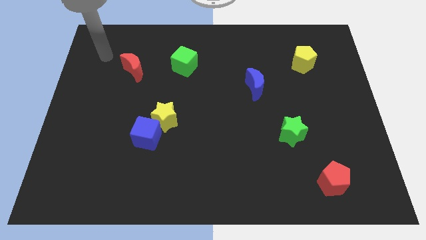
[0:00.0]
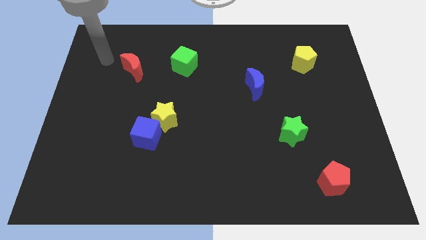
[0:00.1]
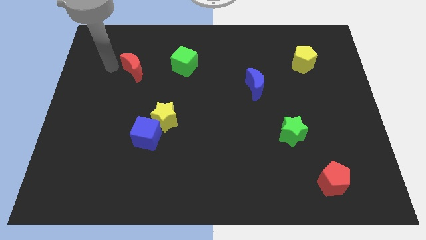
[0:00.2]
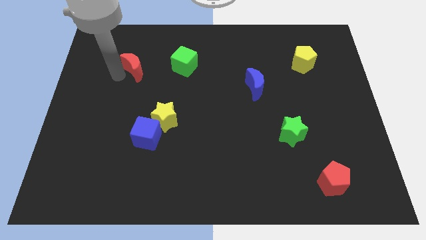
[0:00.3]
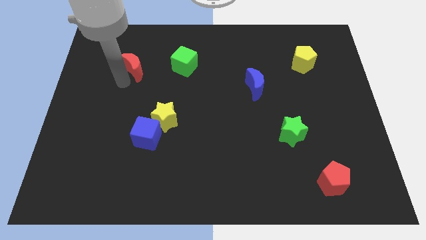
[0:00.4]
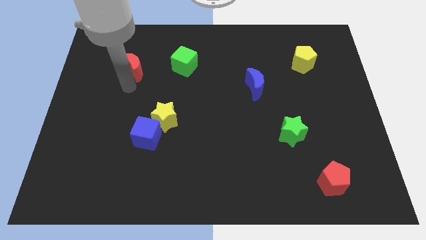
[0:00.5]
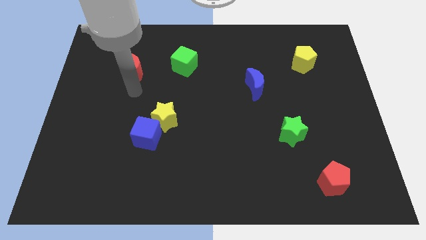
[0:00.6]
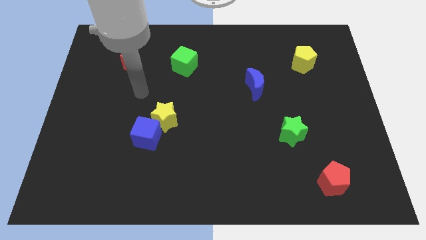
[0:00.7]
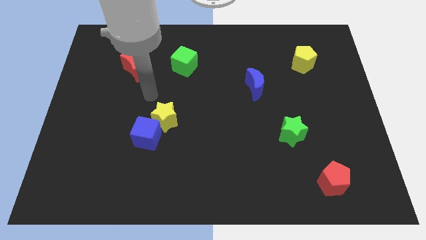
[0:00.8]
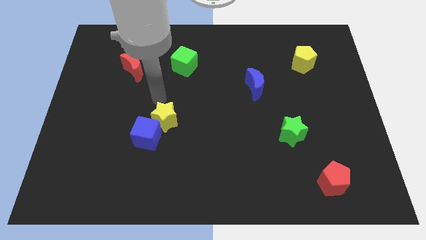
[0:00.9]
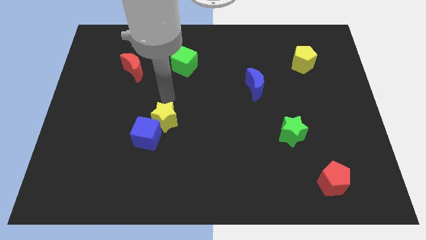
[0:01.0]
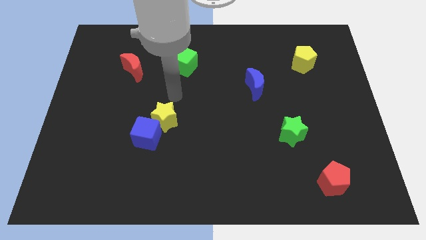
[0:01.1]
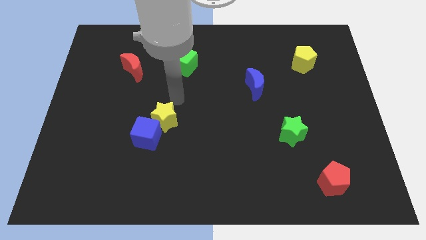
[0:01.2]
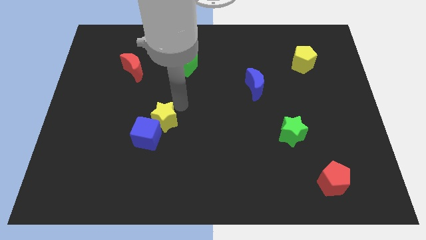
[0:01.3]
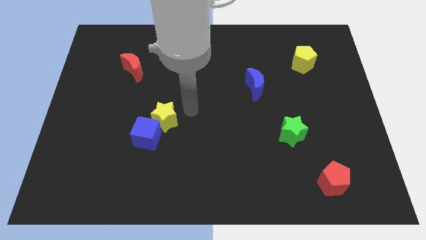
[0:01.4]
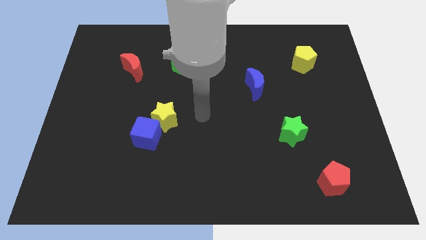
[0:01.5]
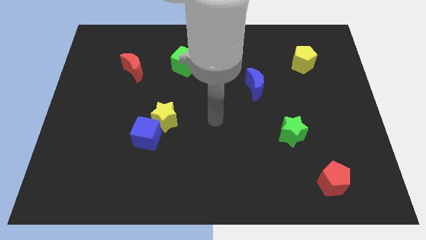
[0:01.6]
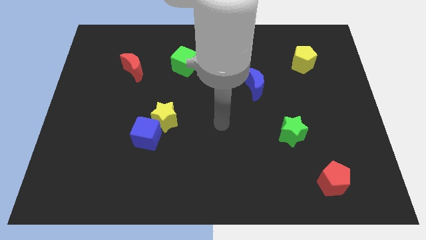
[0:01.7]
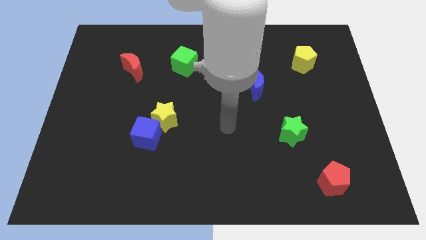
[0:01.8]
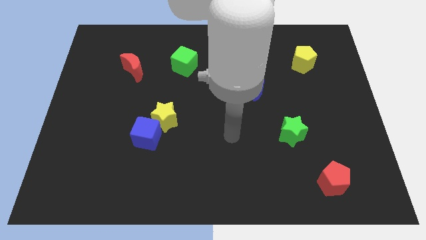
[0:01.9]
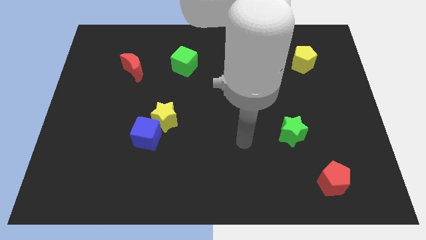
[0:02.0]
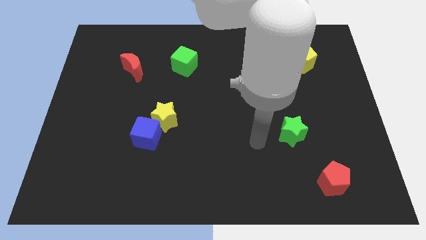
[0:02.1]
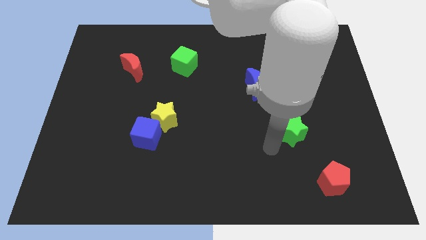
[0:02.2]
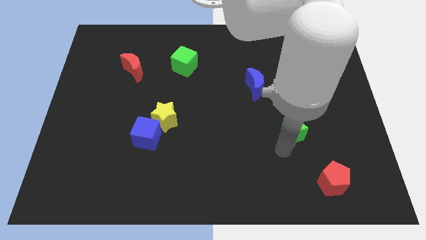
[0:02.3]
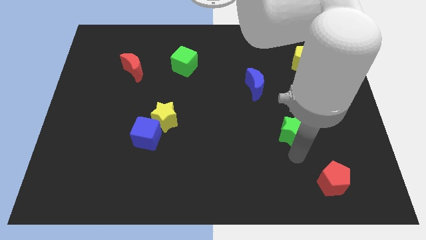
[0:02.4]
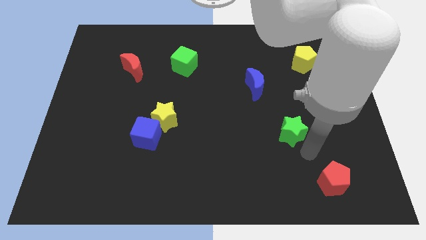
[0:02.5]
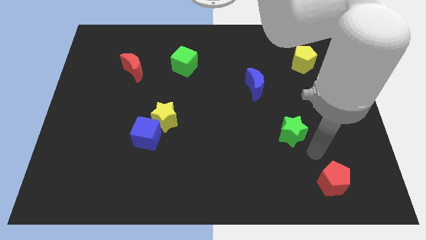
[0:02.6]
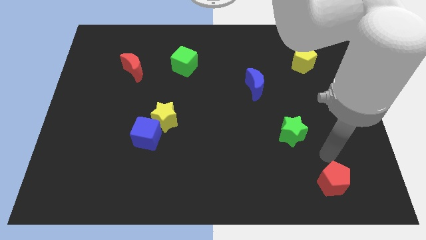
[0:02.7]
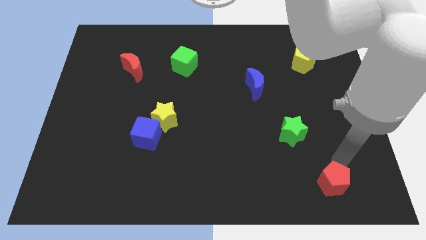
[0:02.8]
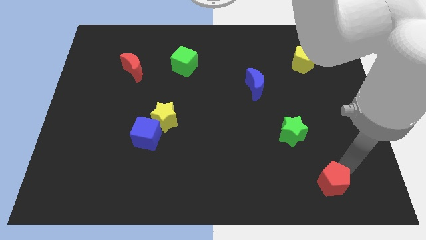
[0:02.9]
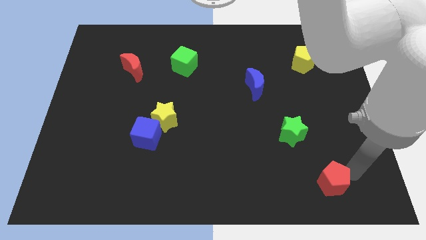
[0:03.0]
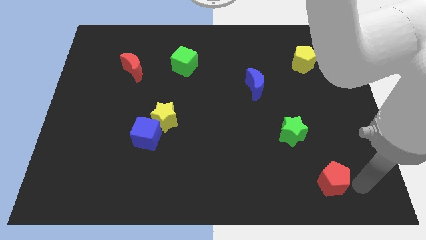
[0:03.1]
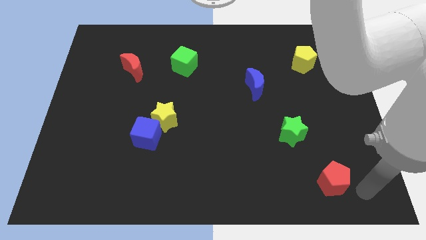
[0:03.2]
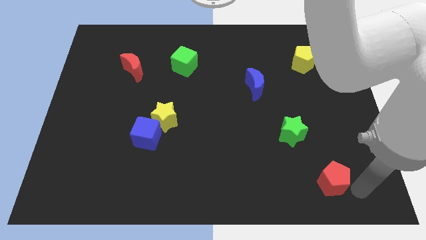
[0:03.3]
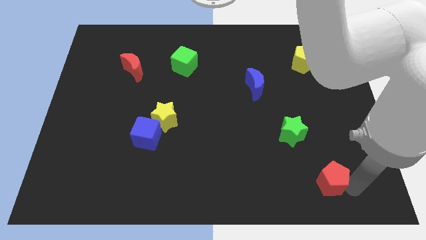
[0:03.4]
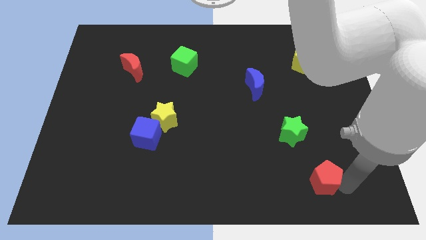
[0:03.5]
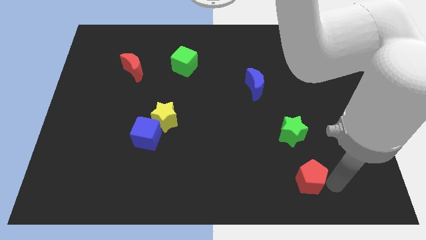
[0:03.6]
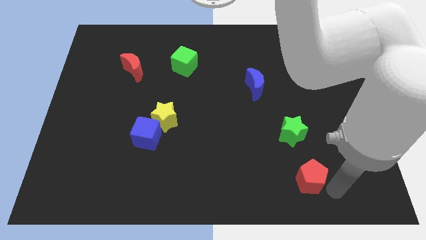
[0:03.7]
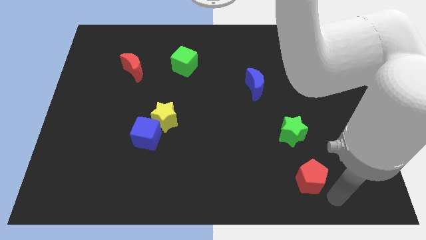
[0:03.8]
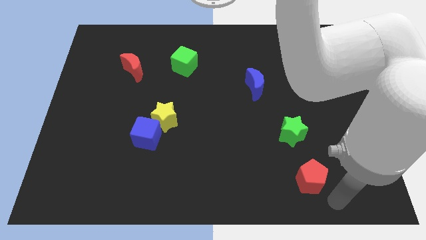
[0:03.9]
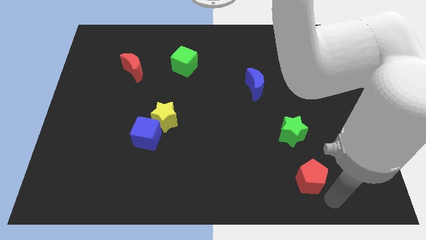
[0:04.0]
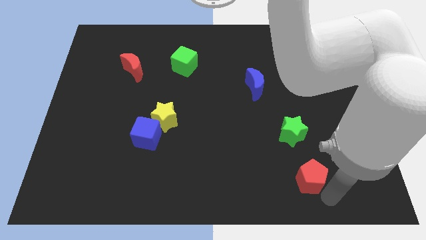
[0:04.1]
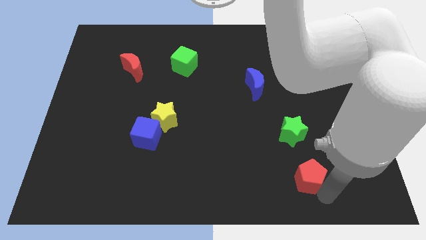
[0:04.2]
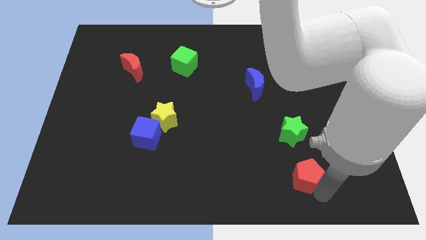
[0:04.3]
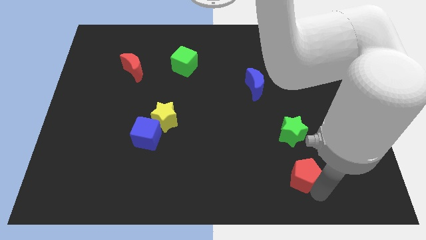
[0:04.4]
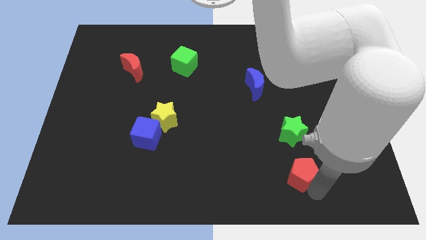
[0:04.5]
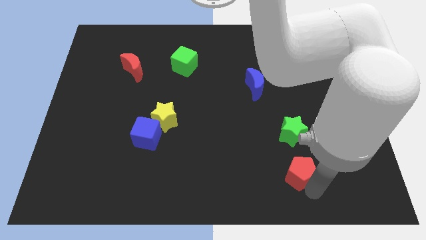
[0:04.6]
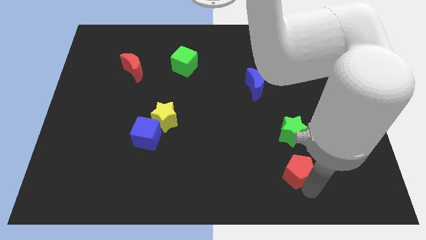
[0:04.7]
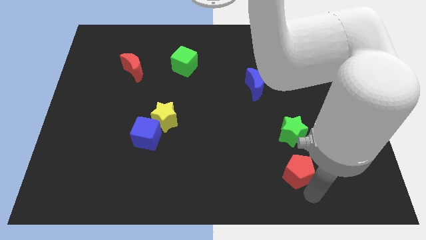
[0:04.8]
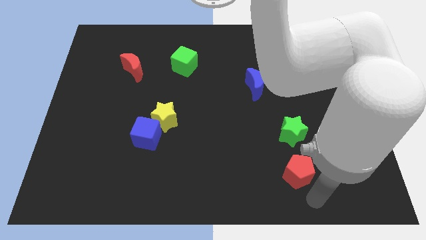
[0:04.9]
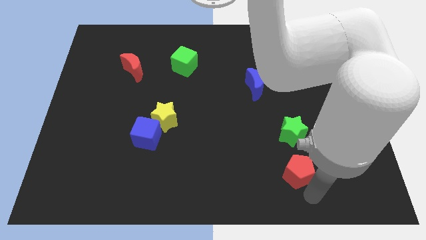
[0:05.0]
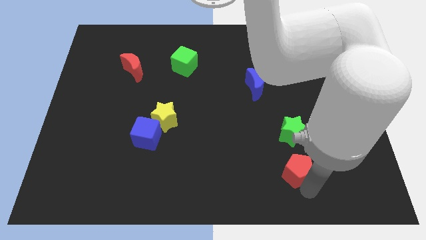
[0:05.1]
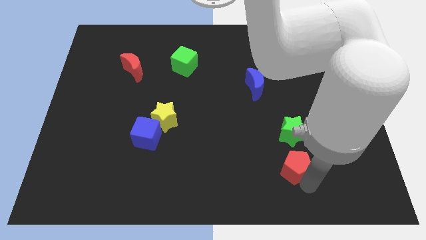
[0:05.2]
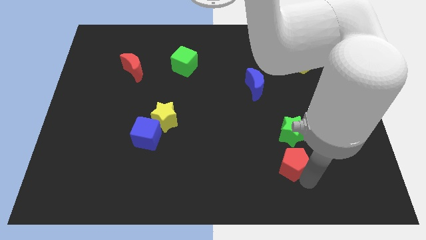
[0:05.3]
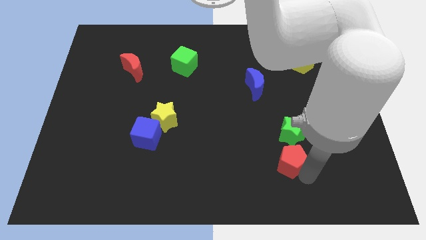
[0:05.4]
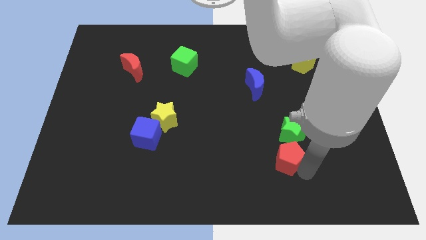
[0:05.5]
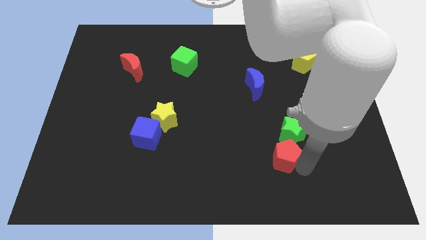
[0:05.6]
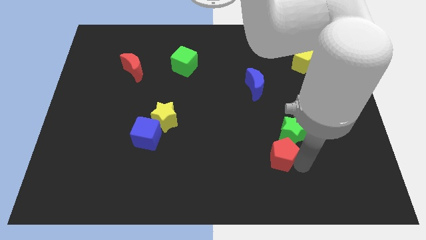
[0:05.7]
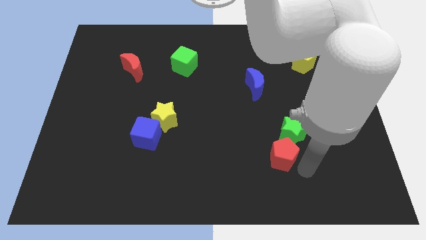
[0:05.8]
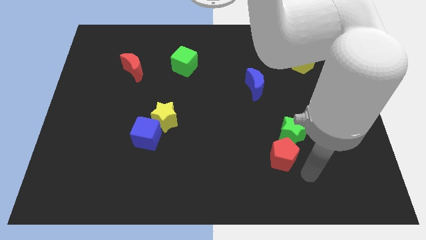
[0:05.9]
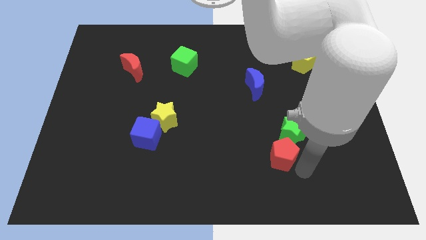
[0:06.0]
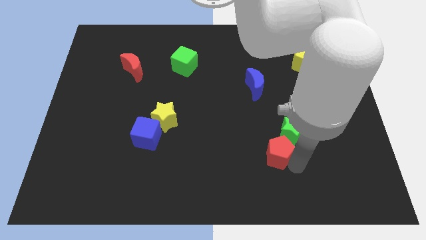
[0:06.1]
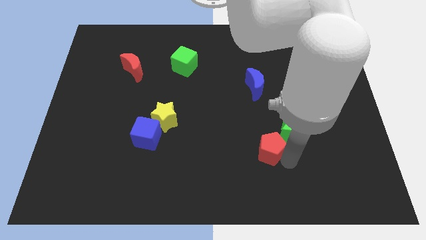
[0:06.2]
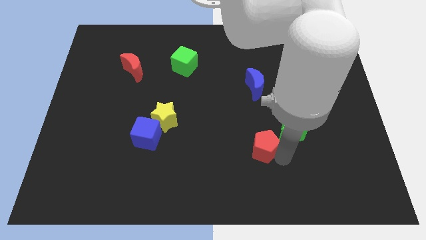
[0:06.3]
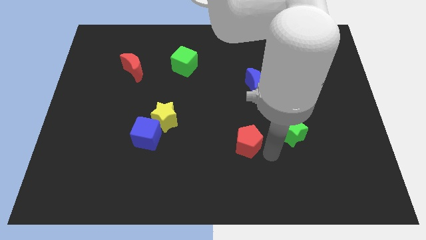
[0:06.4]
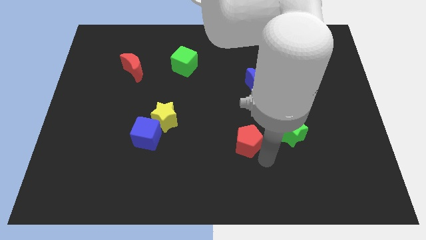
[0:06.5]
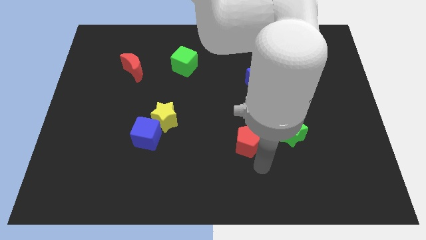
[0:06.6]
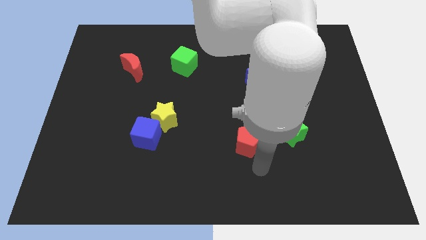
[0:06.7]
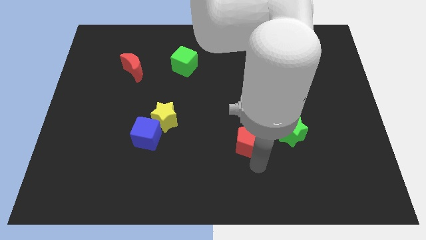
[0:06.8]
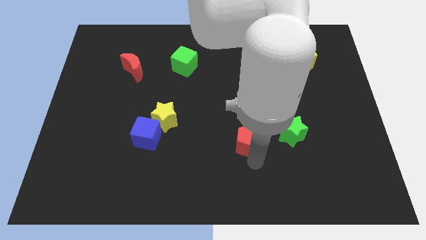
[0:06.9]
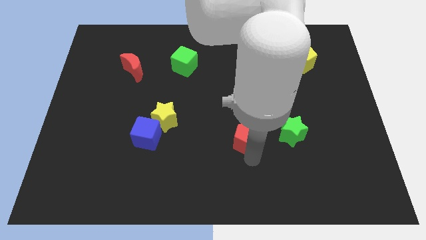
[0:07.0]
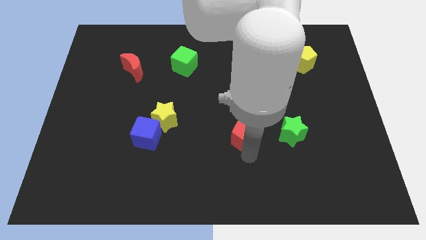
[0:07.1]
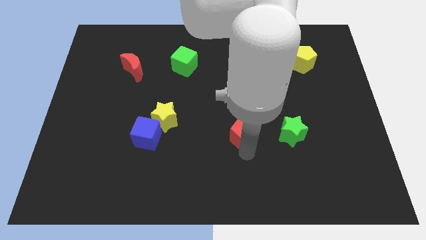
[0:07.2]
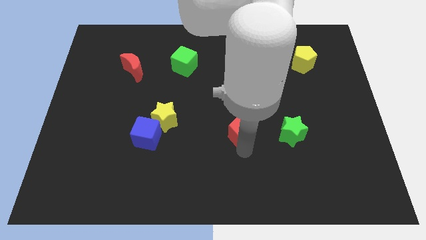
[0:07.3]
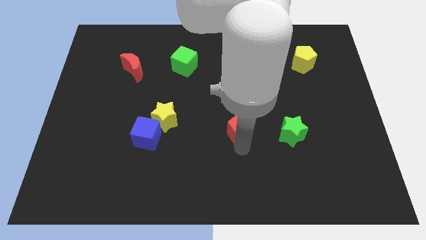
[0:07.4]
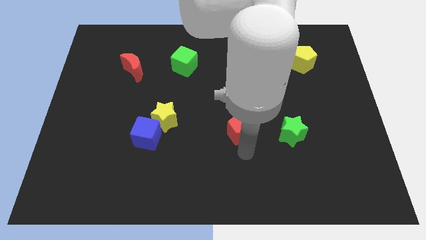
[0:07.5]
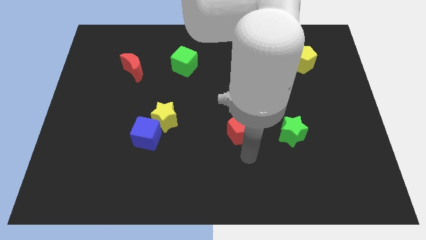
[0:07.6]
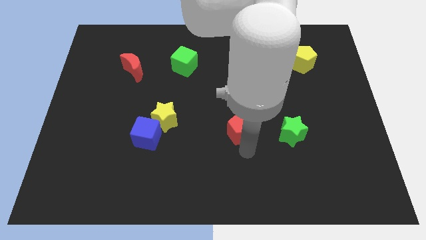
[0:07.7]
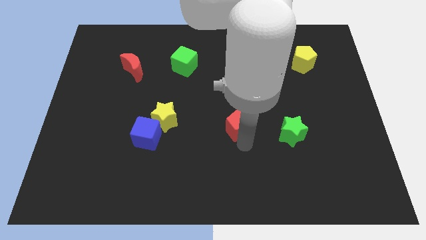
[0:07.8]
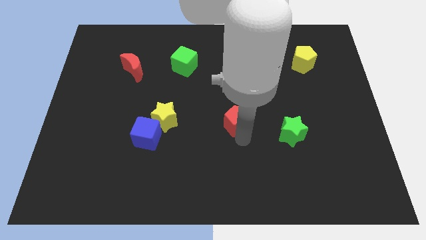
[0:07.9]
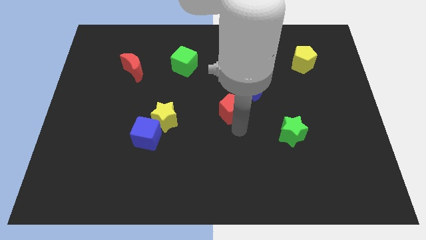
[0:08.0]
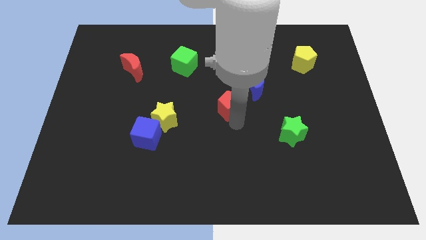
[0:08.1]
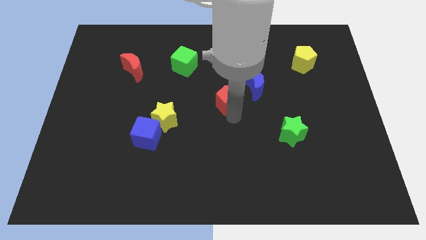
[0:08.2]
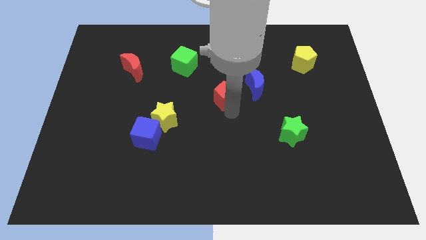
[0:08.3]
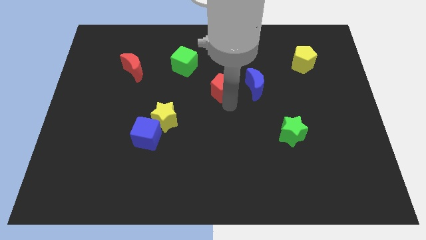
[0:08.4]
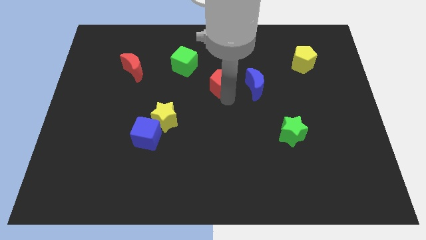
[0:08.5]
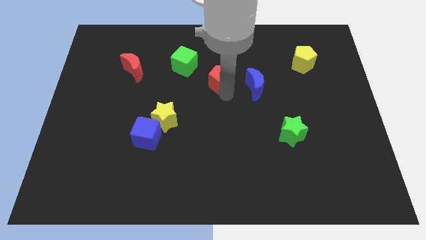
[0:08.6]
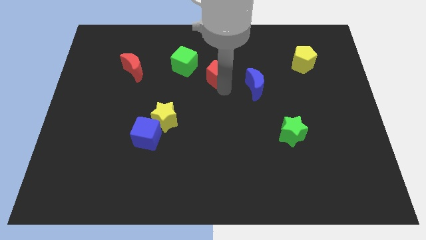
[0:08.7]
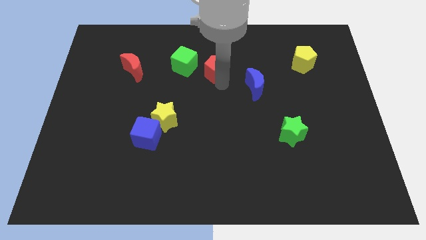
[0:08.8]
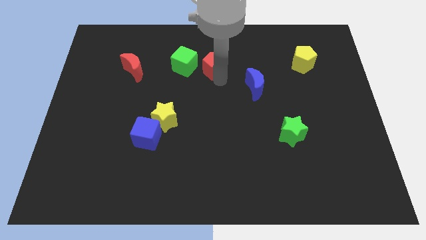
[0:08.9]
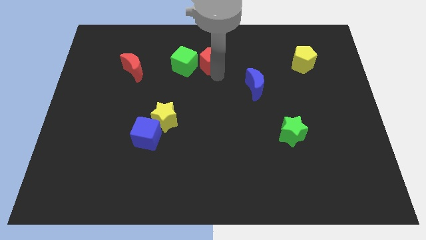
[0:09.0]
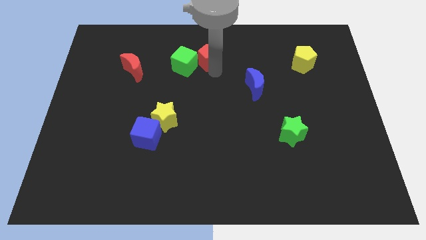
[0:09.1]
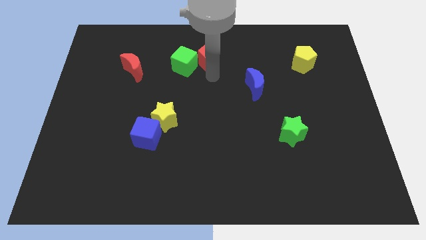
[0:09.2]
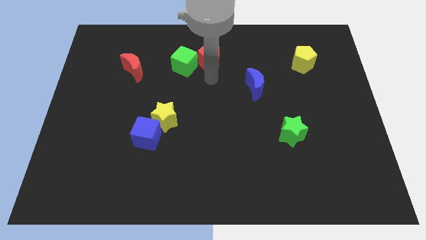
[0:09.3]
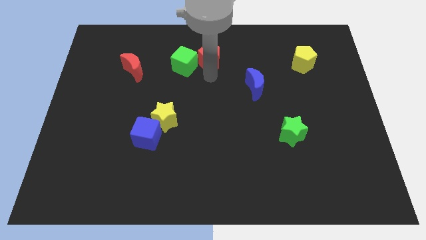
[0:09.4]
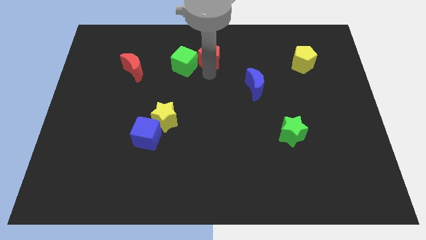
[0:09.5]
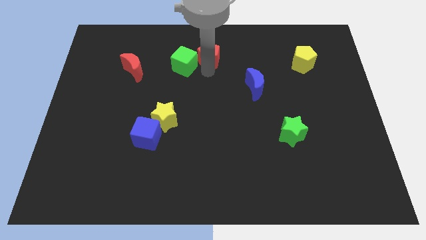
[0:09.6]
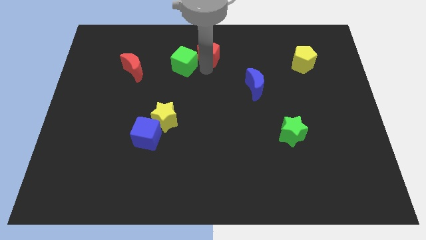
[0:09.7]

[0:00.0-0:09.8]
slide the red pentagon to the top
